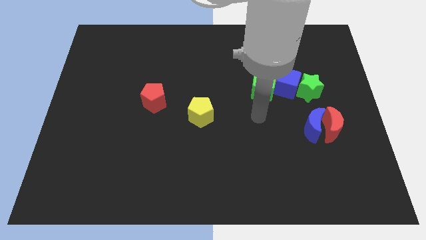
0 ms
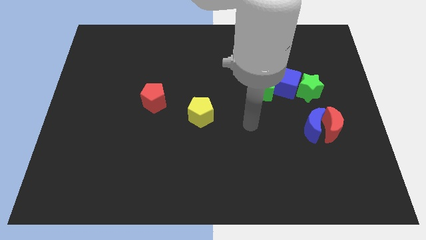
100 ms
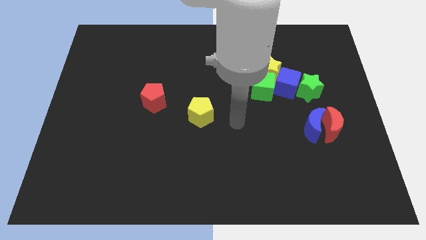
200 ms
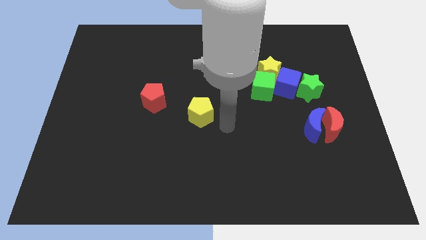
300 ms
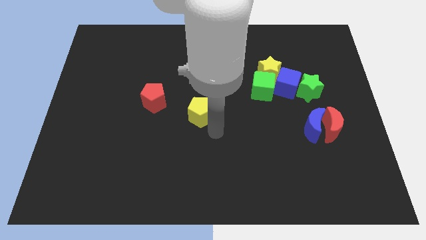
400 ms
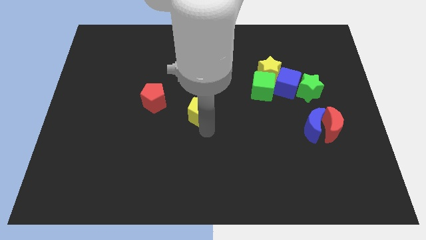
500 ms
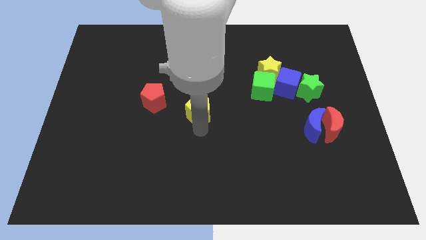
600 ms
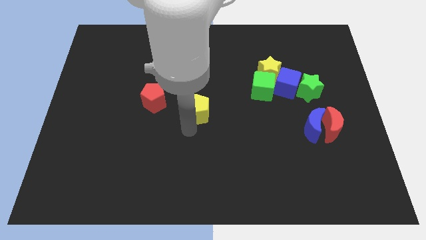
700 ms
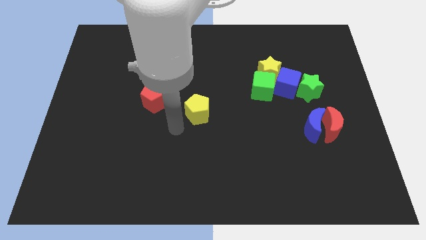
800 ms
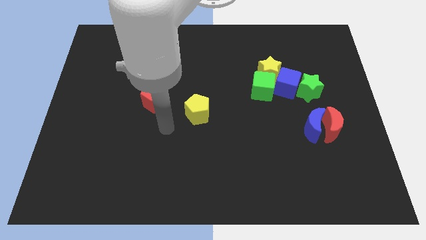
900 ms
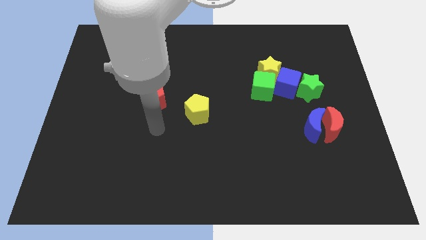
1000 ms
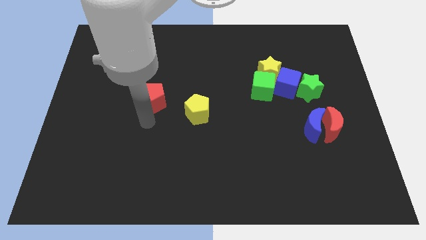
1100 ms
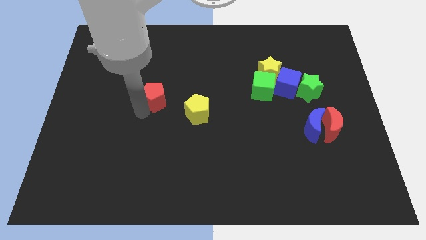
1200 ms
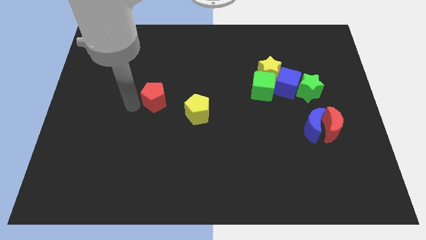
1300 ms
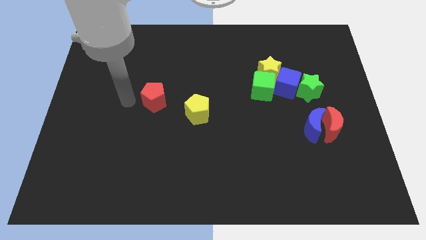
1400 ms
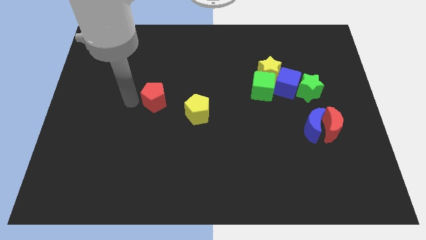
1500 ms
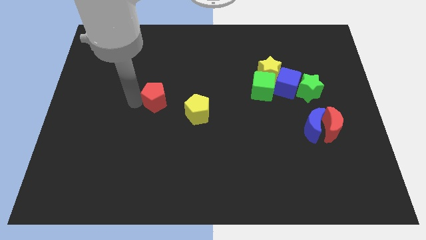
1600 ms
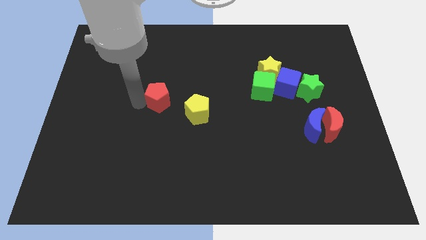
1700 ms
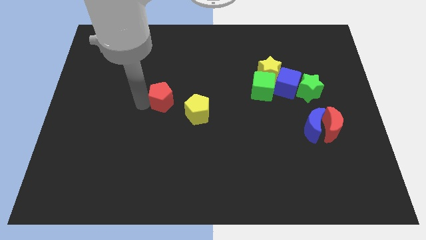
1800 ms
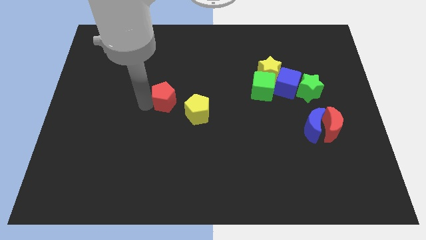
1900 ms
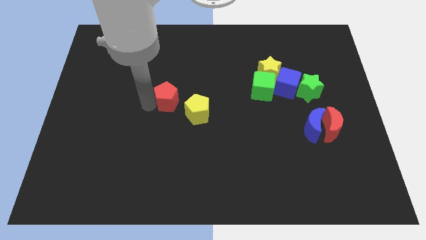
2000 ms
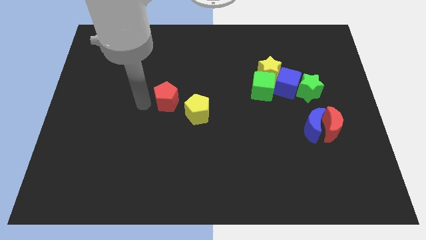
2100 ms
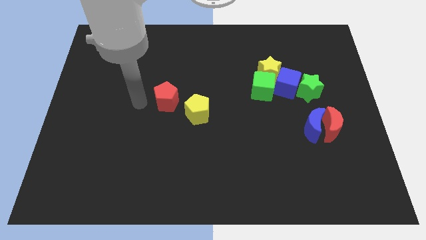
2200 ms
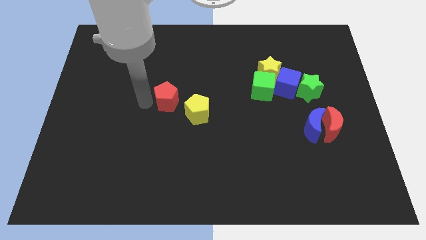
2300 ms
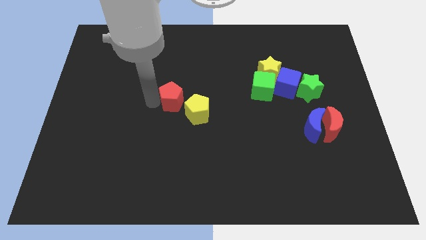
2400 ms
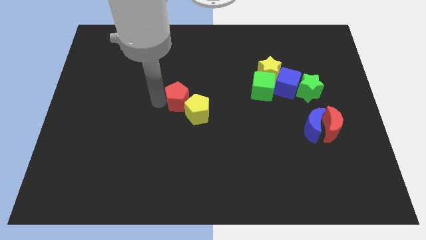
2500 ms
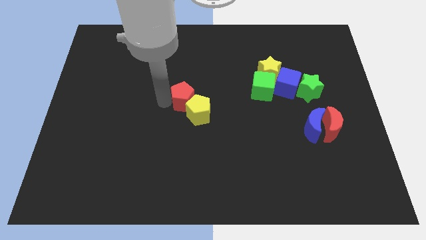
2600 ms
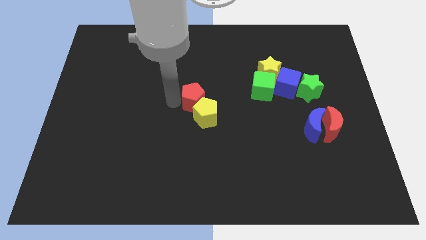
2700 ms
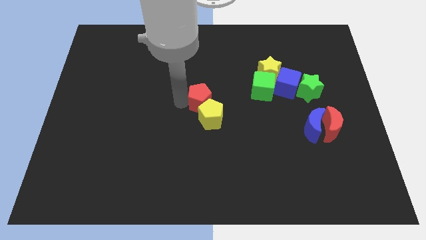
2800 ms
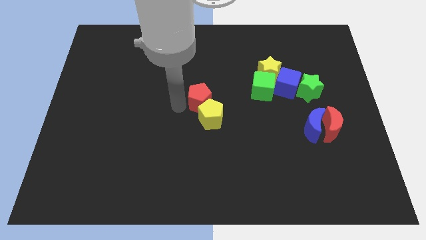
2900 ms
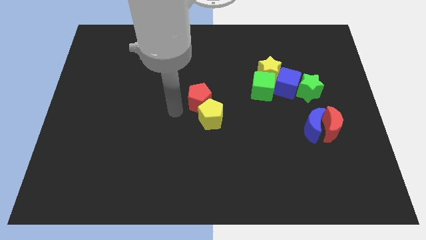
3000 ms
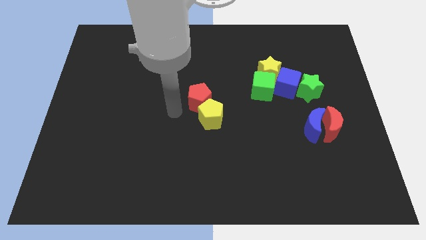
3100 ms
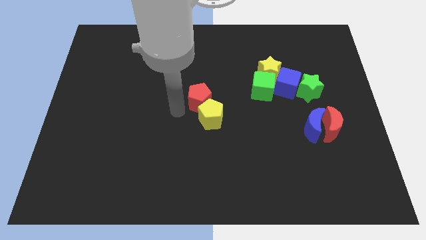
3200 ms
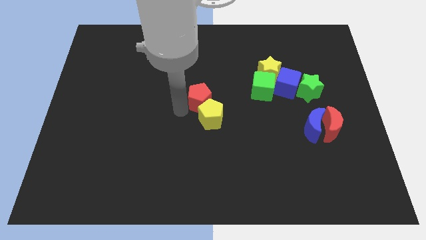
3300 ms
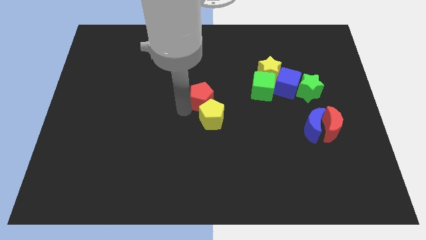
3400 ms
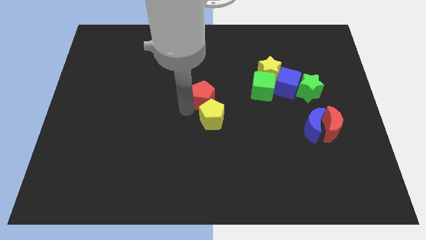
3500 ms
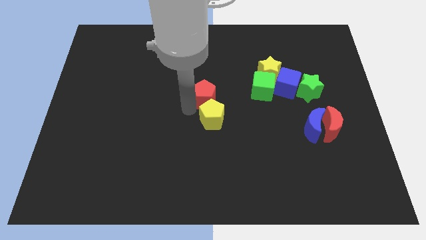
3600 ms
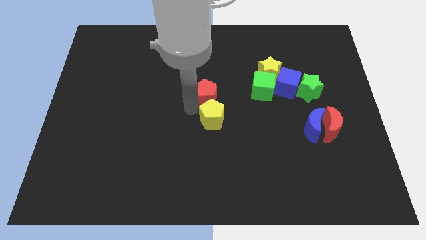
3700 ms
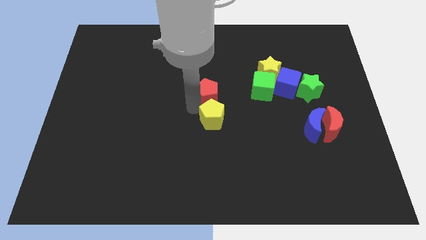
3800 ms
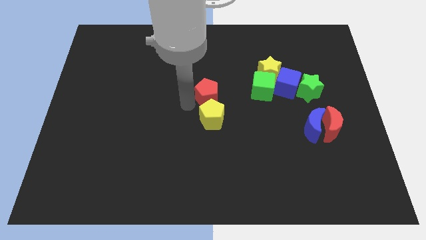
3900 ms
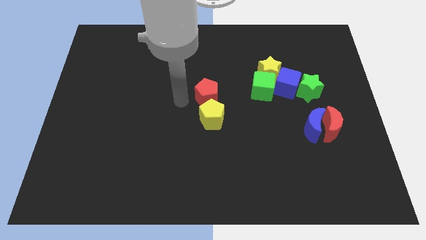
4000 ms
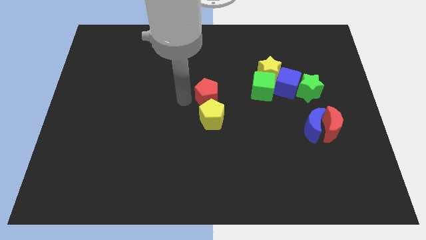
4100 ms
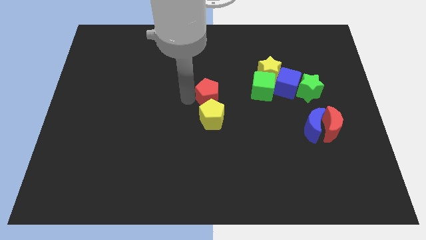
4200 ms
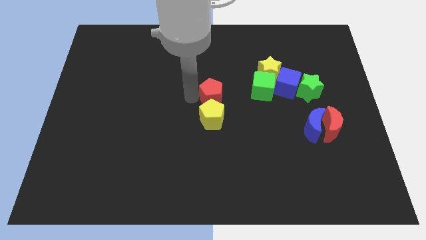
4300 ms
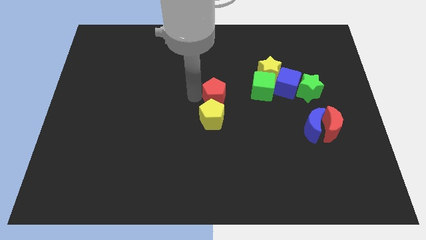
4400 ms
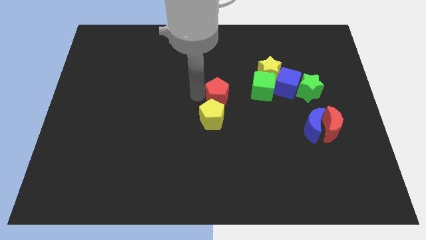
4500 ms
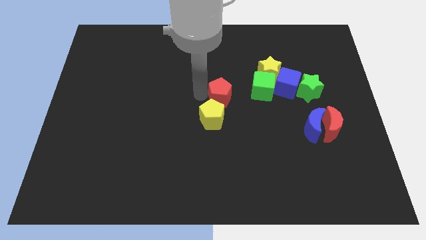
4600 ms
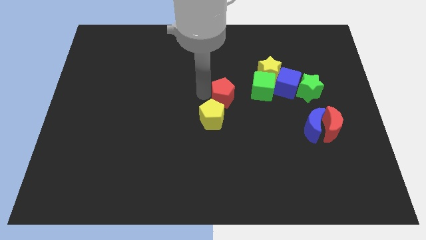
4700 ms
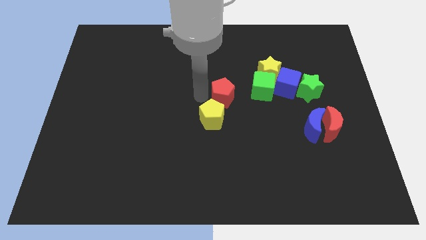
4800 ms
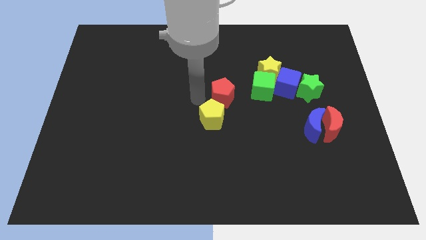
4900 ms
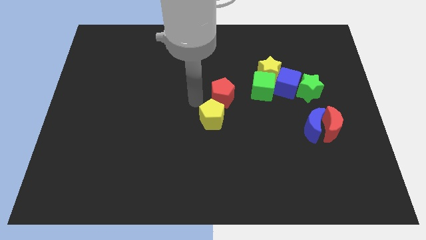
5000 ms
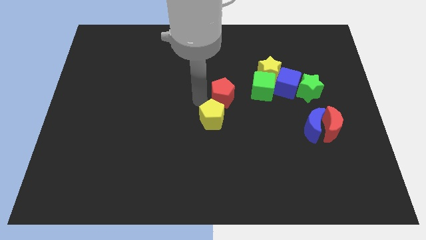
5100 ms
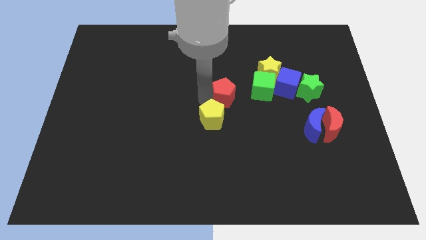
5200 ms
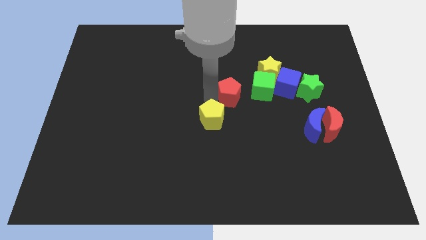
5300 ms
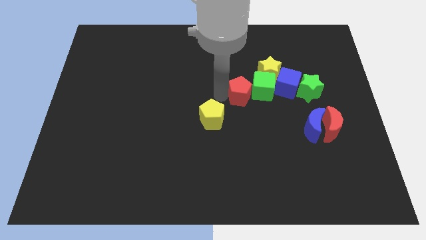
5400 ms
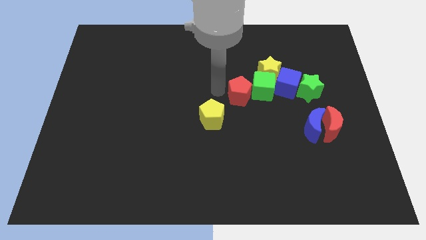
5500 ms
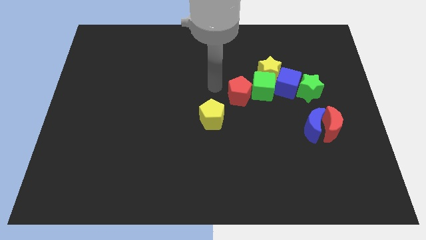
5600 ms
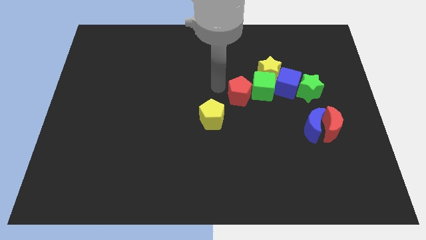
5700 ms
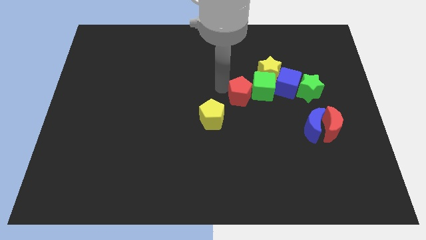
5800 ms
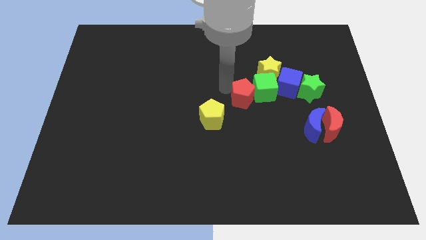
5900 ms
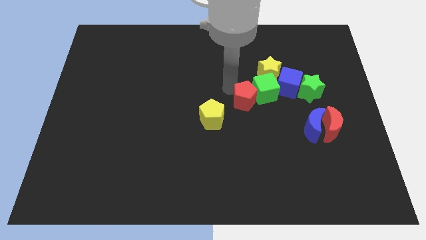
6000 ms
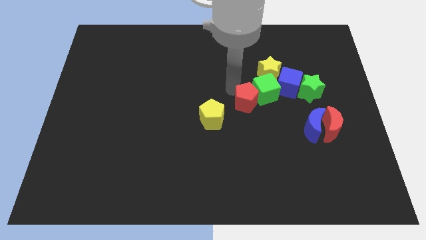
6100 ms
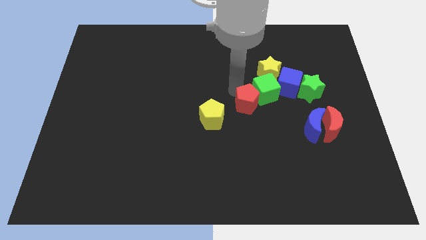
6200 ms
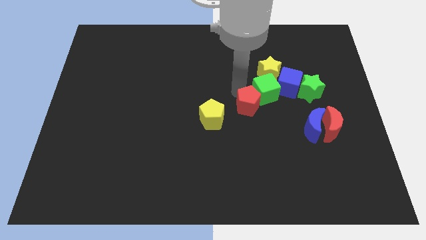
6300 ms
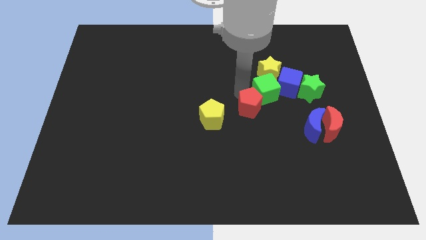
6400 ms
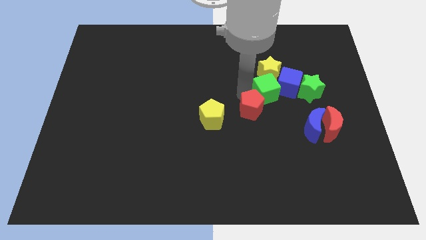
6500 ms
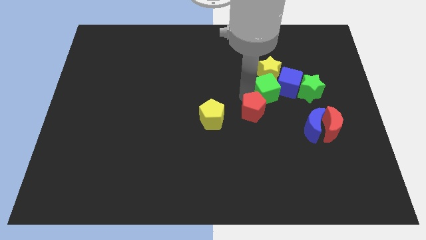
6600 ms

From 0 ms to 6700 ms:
put the red pentagon to the bottom side of the yellow star

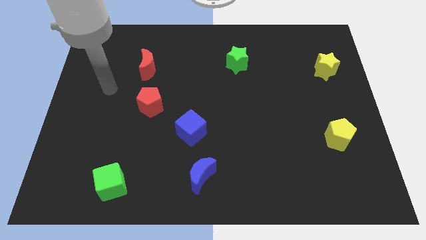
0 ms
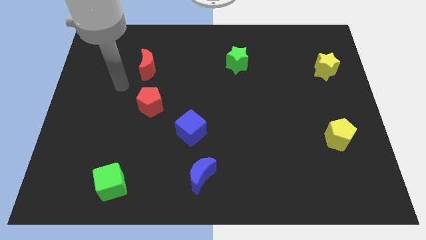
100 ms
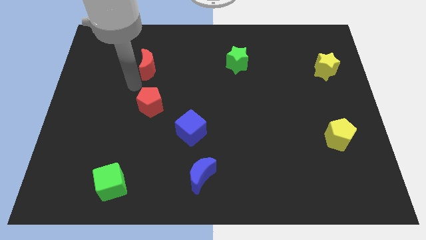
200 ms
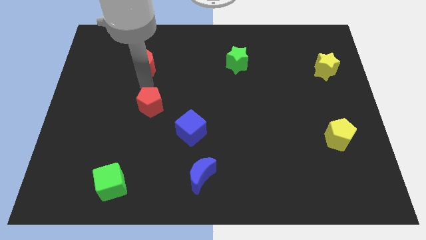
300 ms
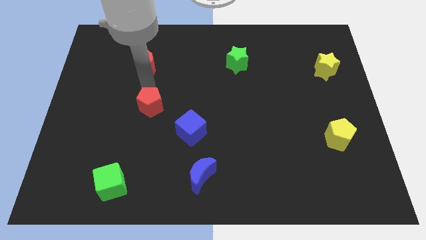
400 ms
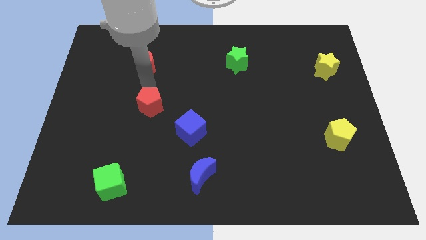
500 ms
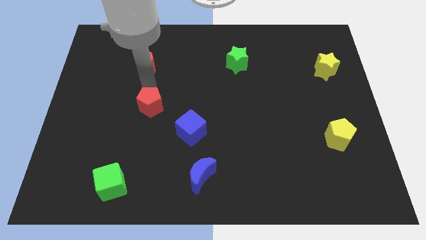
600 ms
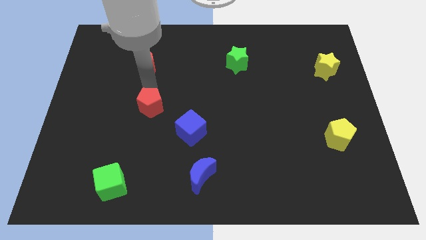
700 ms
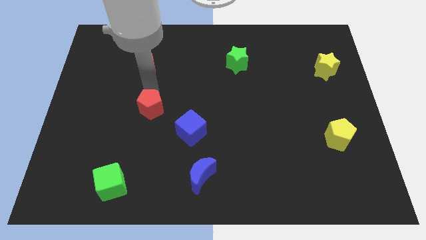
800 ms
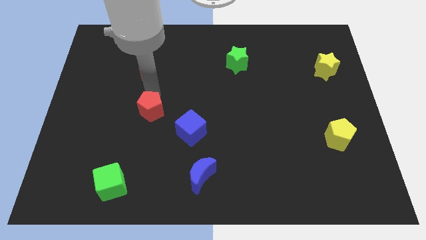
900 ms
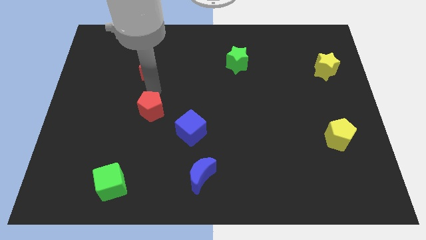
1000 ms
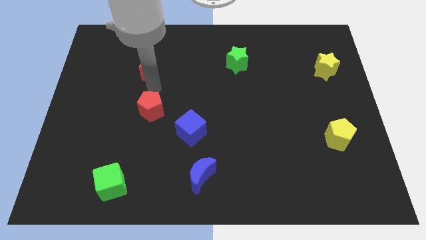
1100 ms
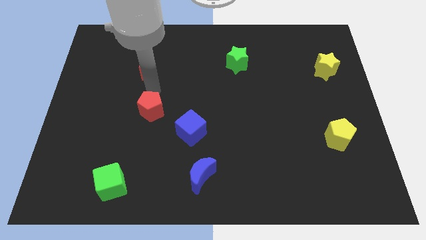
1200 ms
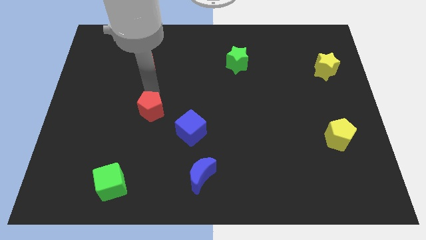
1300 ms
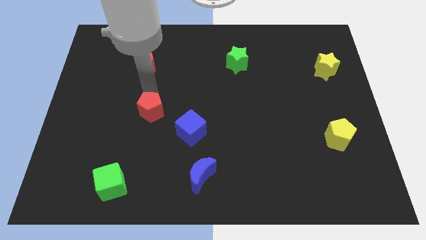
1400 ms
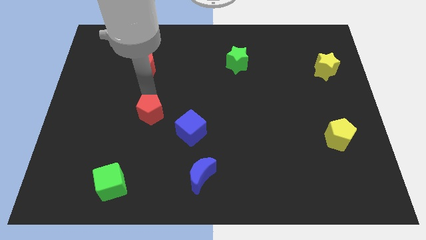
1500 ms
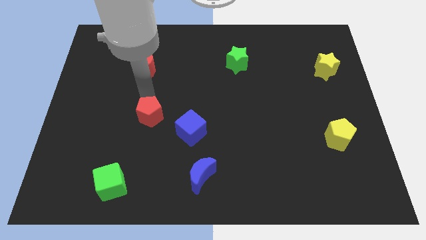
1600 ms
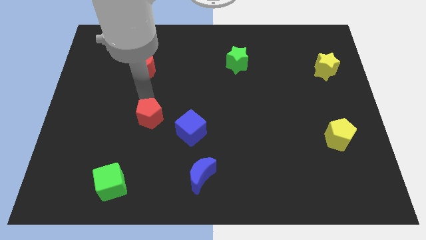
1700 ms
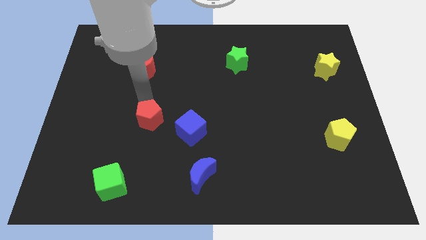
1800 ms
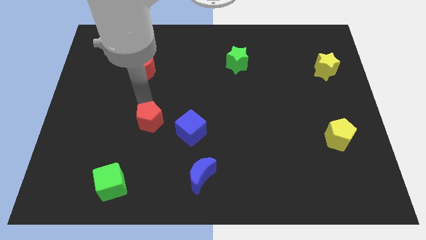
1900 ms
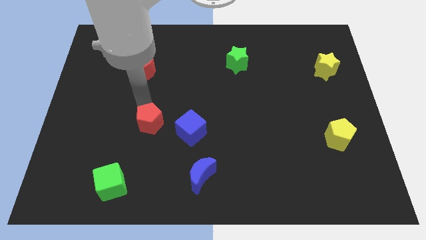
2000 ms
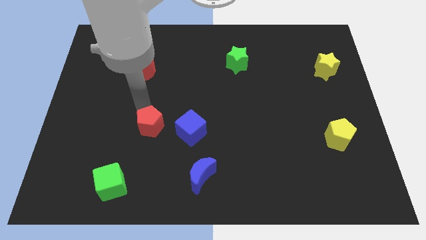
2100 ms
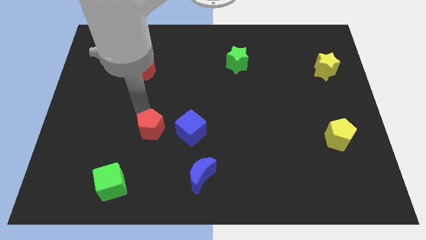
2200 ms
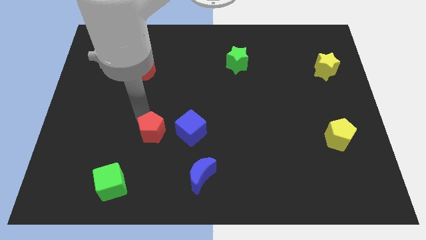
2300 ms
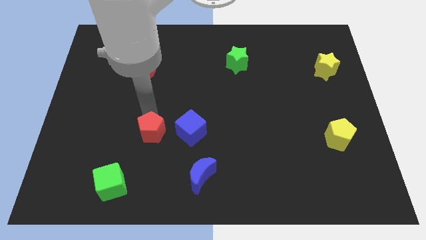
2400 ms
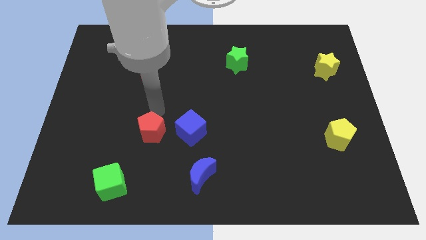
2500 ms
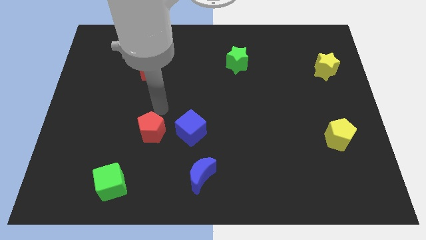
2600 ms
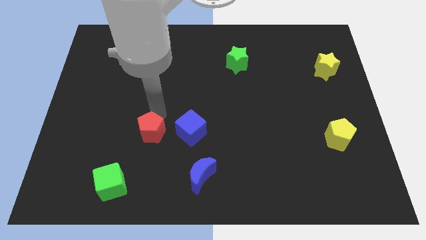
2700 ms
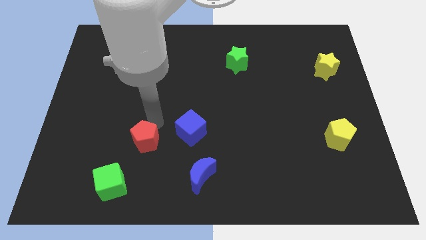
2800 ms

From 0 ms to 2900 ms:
slide the red pentagon diagonally up and to the right of the green cube
